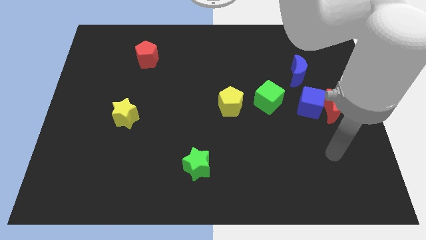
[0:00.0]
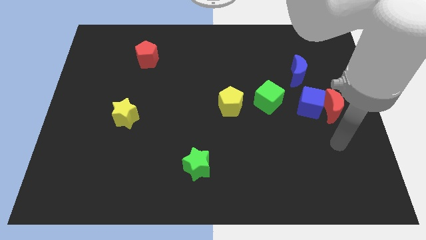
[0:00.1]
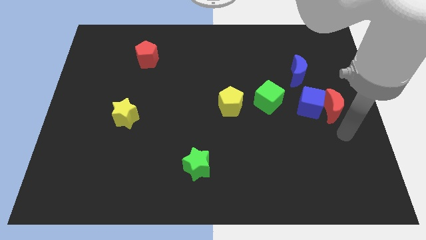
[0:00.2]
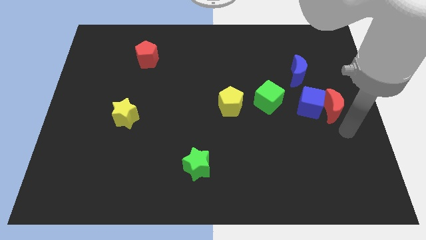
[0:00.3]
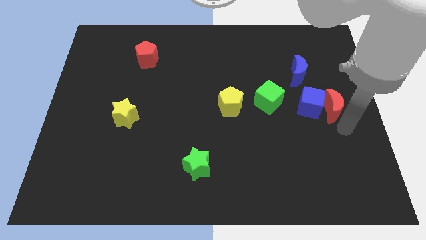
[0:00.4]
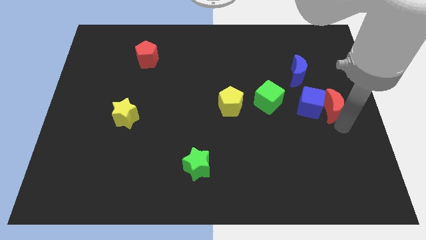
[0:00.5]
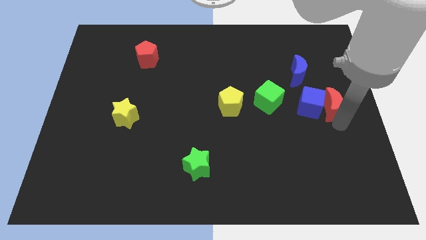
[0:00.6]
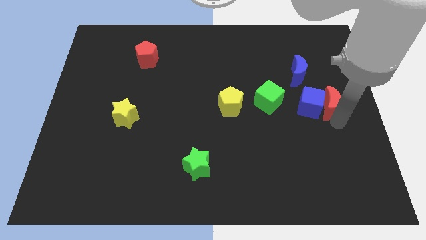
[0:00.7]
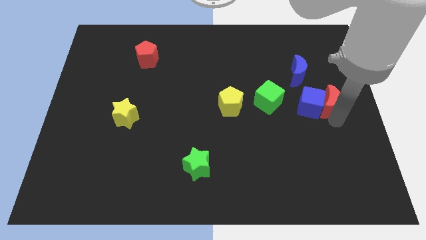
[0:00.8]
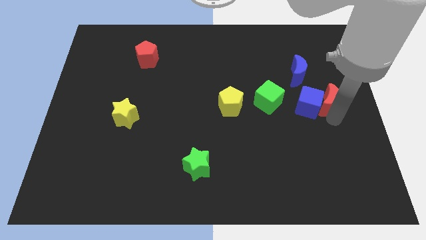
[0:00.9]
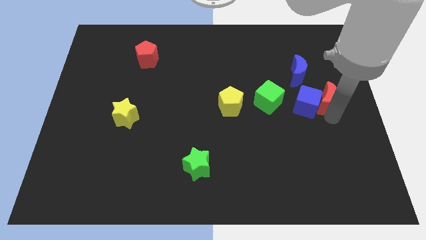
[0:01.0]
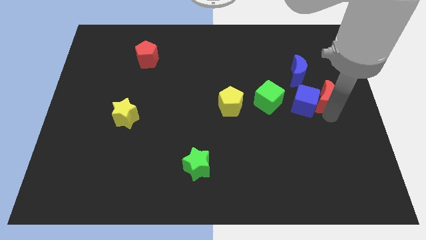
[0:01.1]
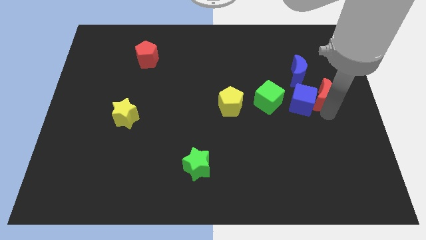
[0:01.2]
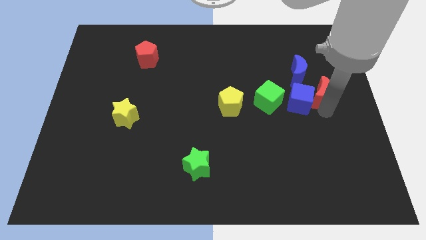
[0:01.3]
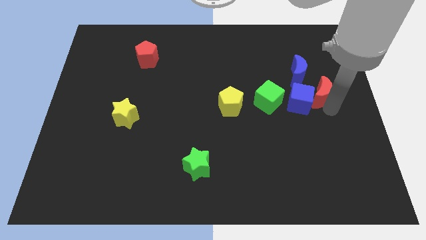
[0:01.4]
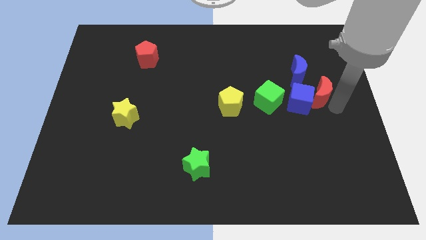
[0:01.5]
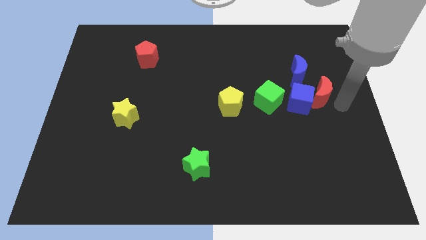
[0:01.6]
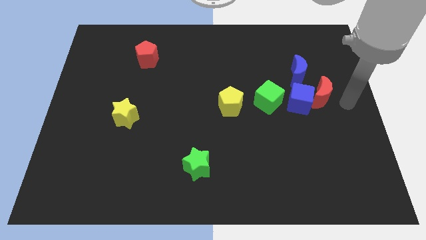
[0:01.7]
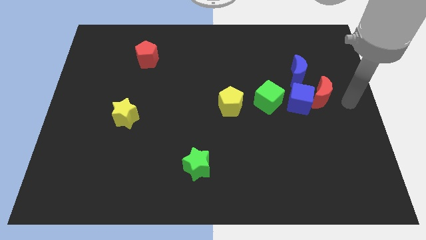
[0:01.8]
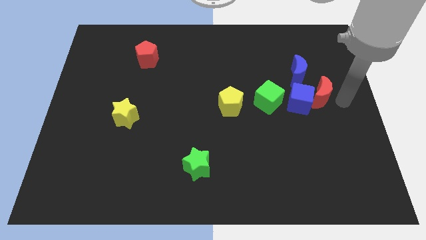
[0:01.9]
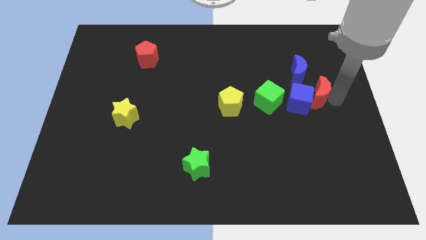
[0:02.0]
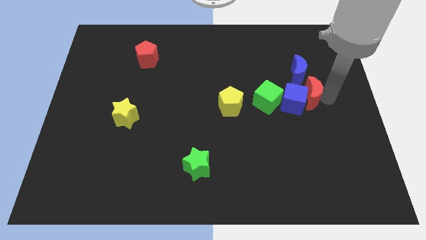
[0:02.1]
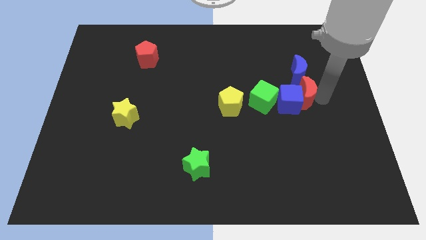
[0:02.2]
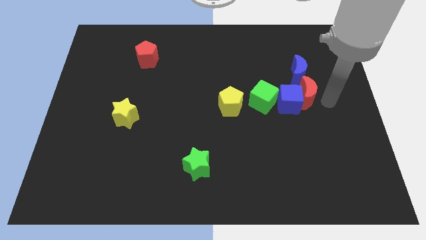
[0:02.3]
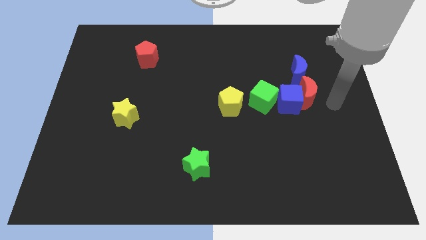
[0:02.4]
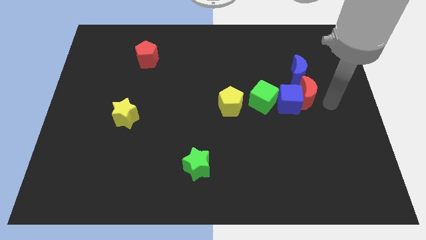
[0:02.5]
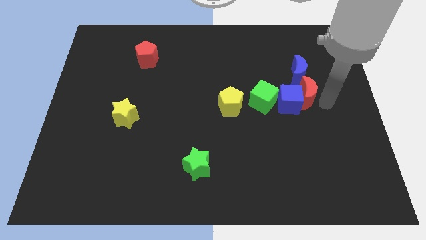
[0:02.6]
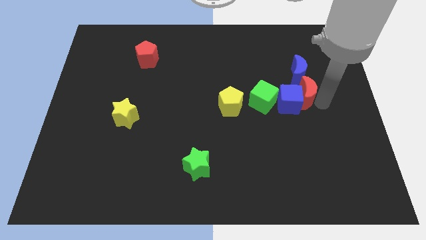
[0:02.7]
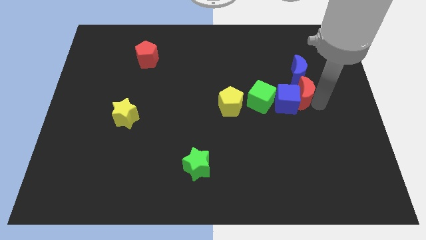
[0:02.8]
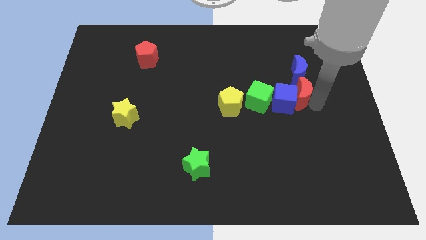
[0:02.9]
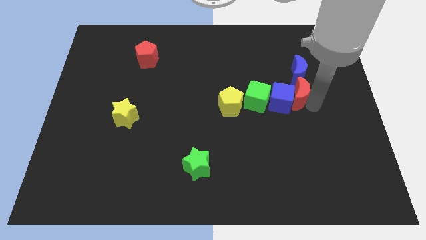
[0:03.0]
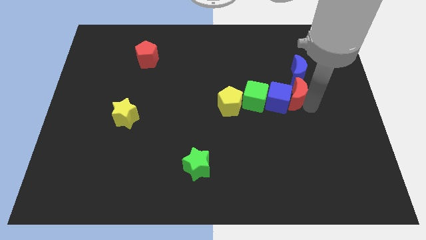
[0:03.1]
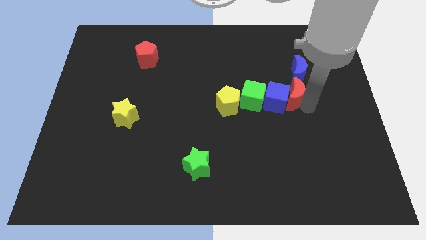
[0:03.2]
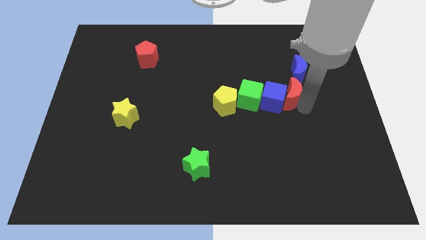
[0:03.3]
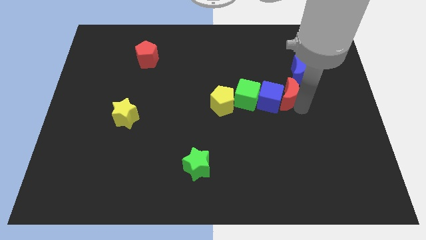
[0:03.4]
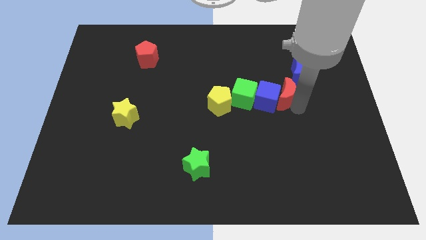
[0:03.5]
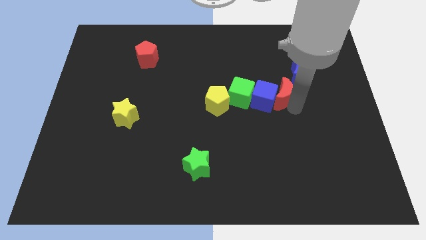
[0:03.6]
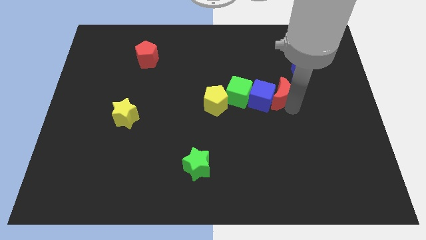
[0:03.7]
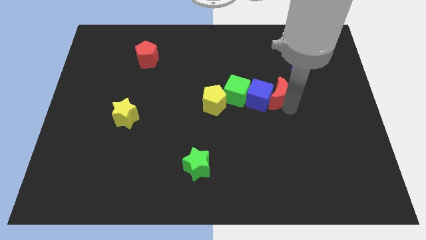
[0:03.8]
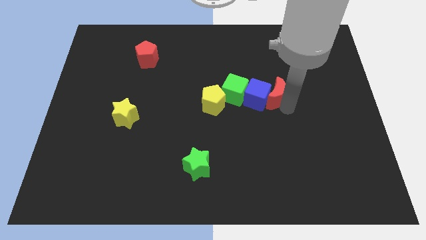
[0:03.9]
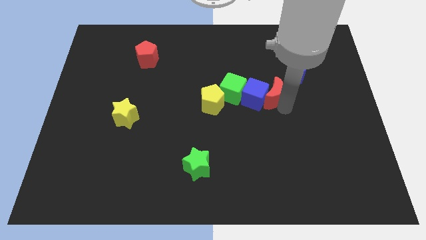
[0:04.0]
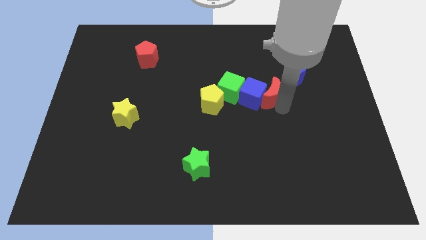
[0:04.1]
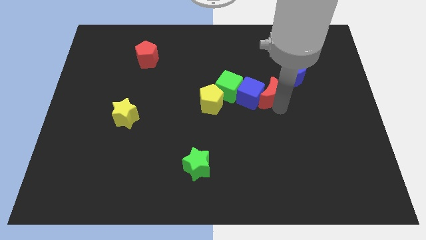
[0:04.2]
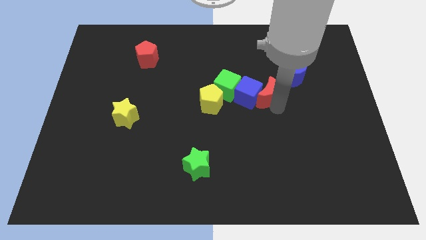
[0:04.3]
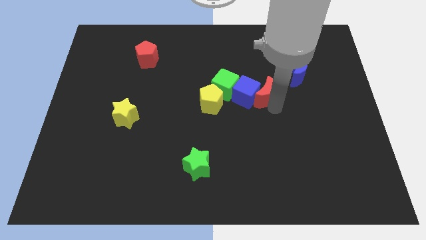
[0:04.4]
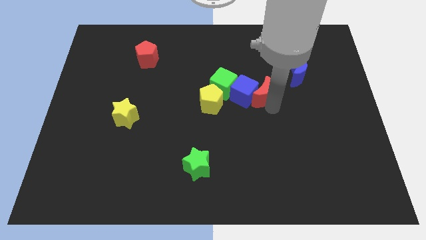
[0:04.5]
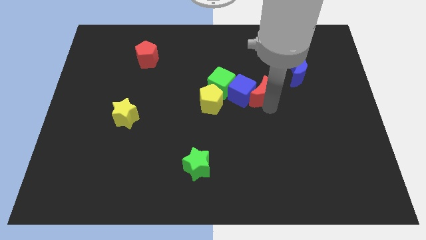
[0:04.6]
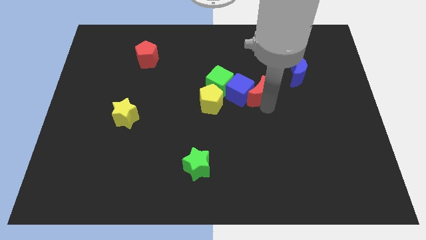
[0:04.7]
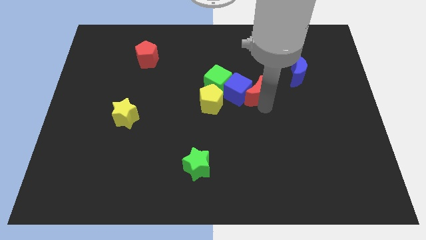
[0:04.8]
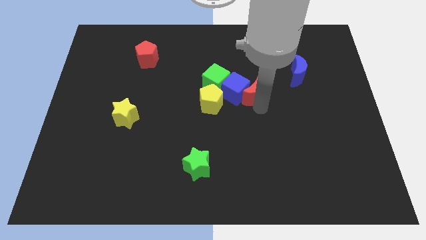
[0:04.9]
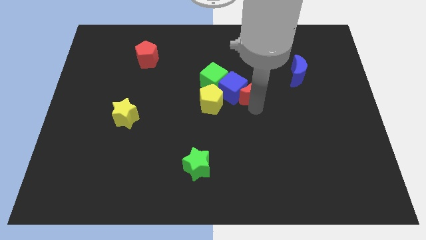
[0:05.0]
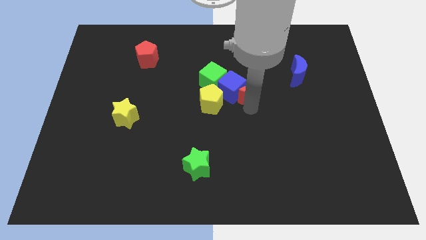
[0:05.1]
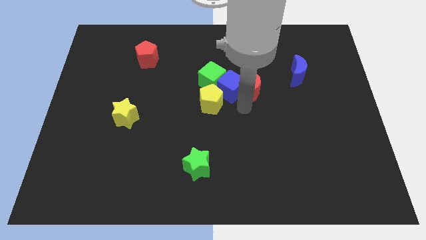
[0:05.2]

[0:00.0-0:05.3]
put the red moon diagonally up and to the right of the yellow pentagon

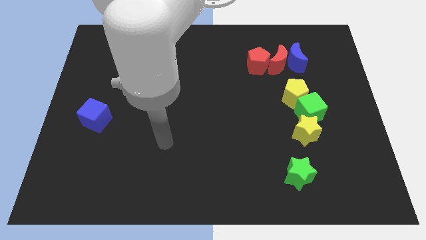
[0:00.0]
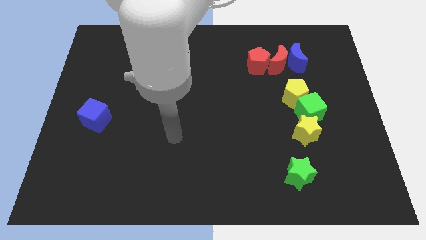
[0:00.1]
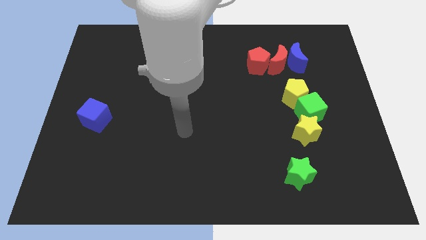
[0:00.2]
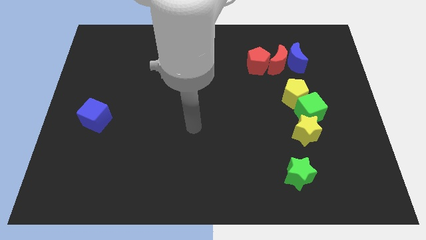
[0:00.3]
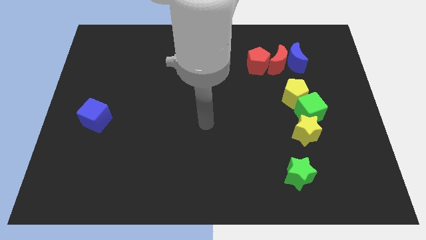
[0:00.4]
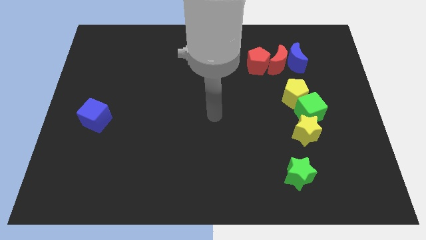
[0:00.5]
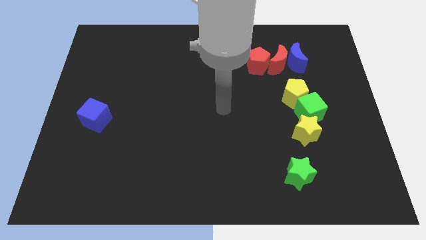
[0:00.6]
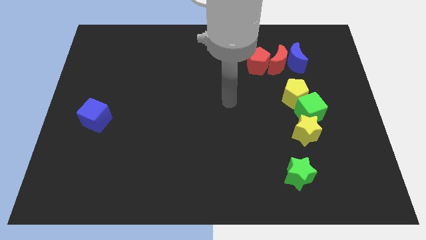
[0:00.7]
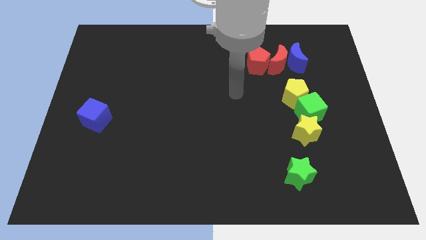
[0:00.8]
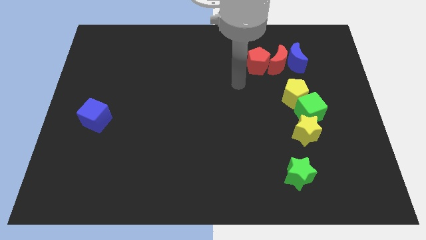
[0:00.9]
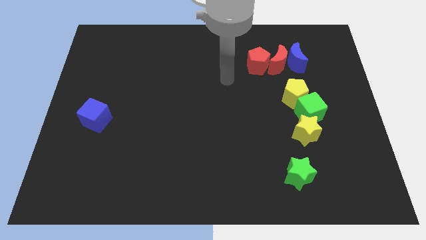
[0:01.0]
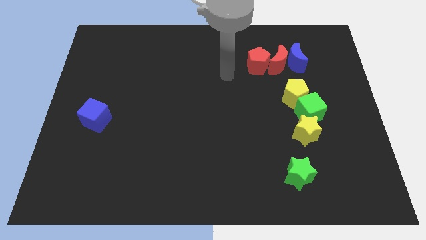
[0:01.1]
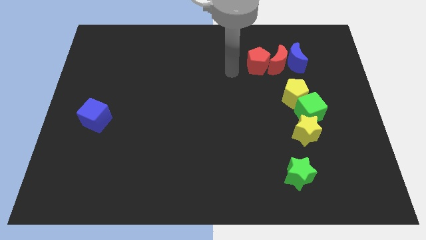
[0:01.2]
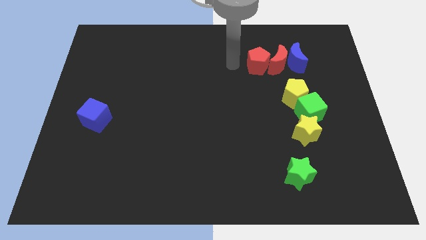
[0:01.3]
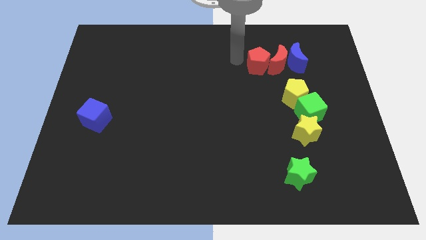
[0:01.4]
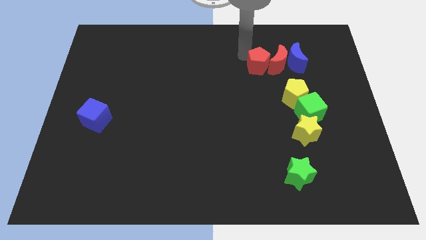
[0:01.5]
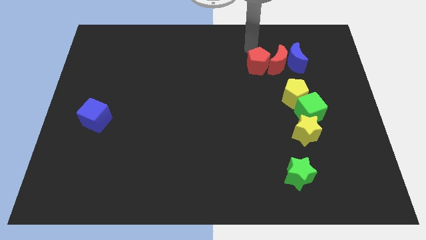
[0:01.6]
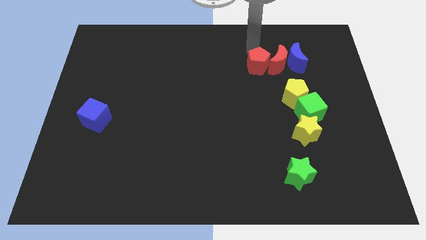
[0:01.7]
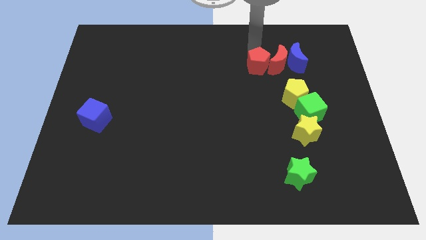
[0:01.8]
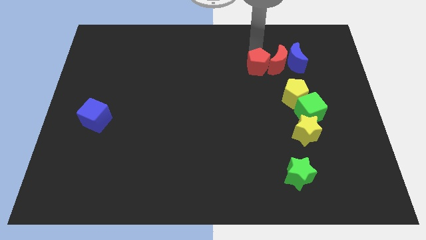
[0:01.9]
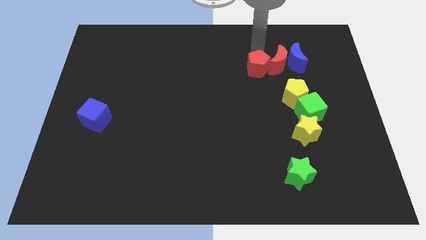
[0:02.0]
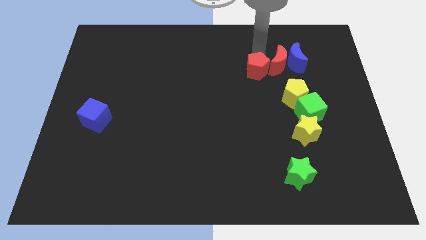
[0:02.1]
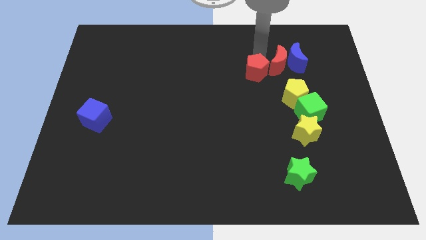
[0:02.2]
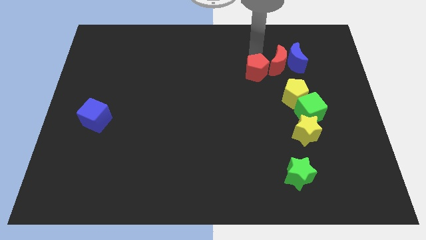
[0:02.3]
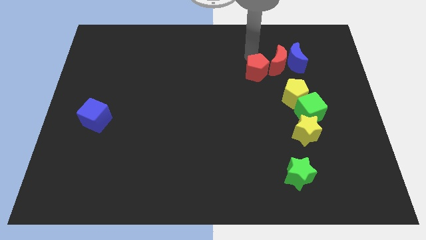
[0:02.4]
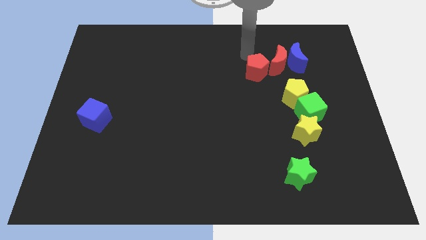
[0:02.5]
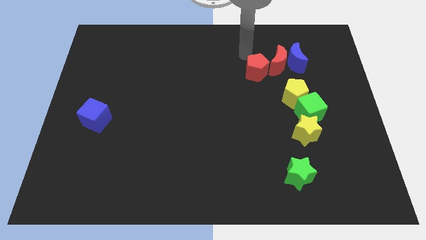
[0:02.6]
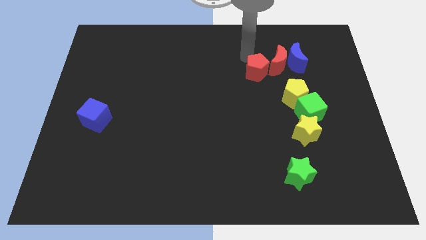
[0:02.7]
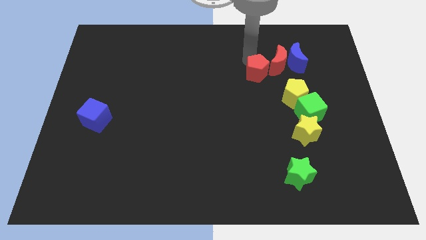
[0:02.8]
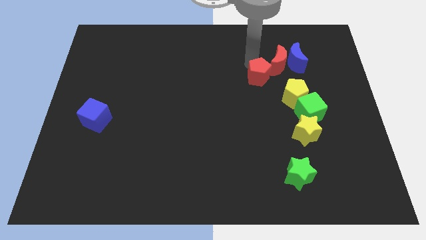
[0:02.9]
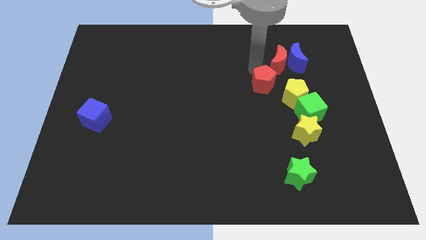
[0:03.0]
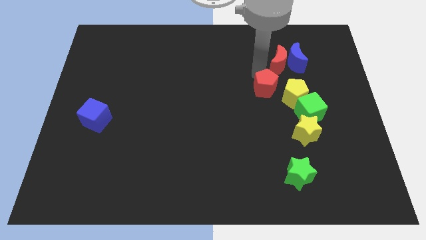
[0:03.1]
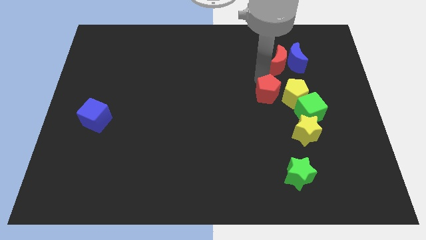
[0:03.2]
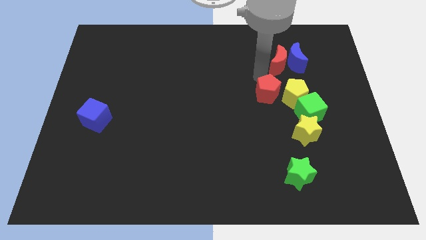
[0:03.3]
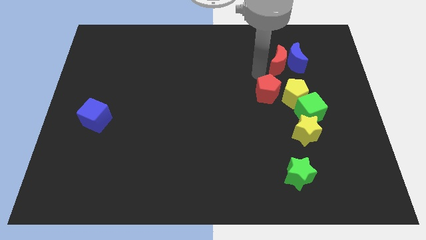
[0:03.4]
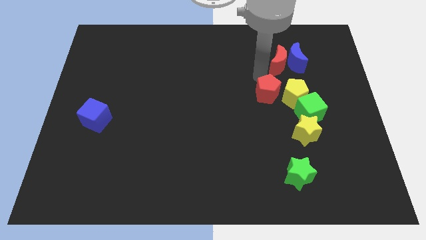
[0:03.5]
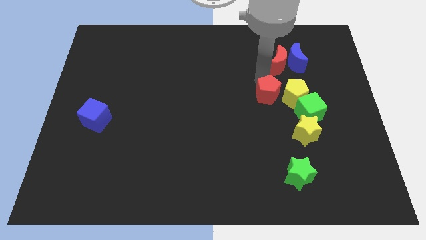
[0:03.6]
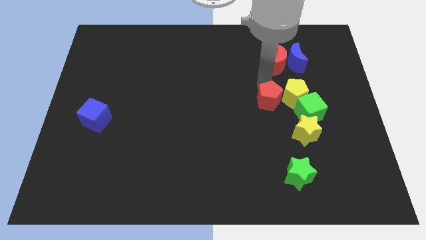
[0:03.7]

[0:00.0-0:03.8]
slide the red pentagon diagonally down and to the left of the yellow pentagon
